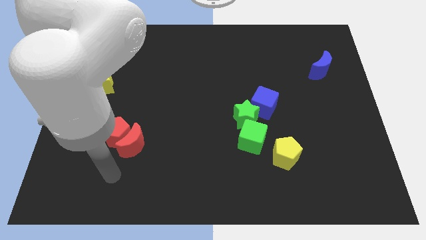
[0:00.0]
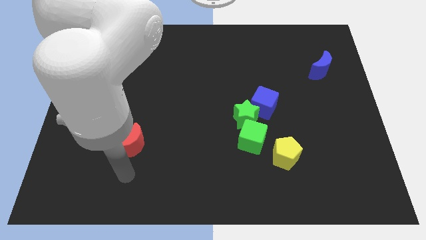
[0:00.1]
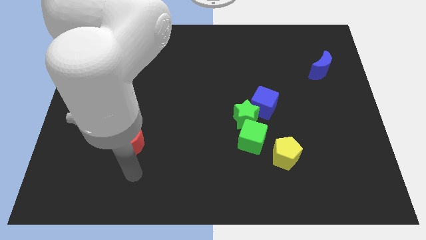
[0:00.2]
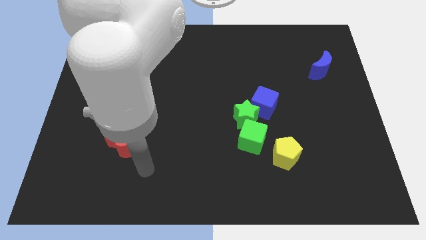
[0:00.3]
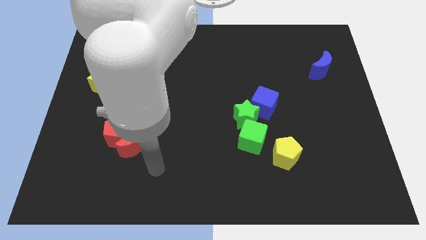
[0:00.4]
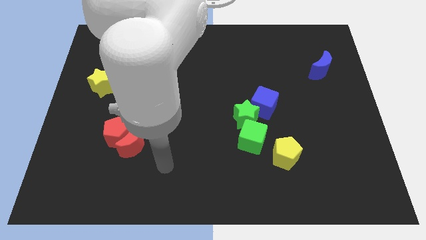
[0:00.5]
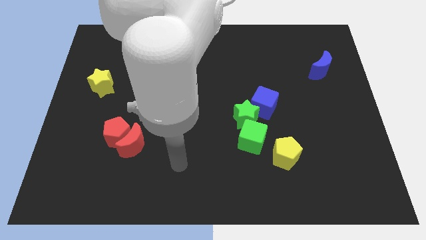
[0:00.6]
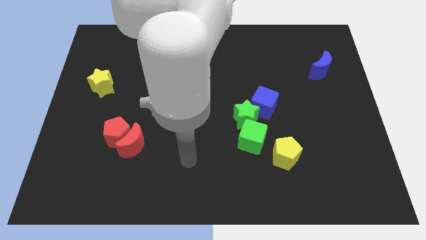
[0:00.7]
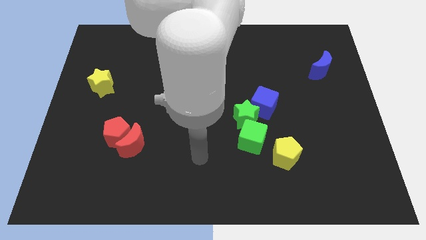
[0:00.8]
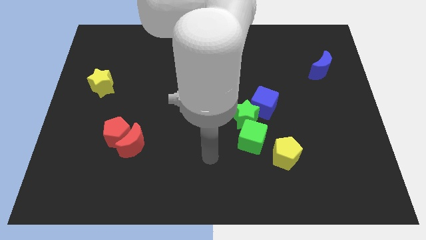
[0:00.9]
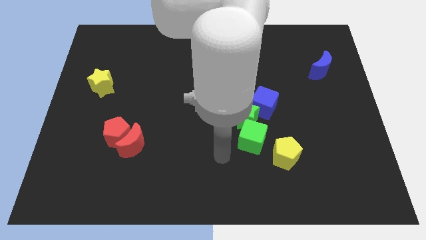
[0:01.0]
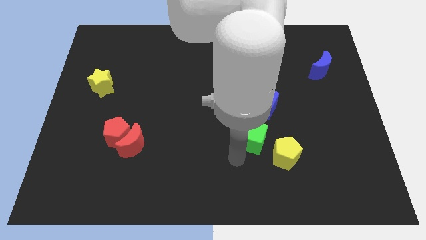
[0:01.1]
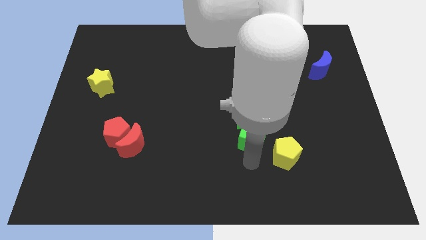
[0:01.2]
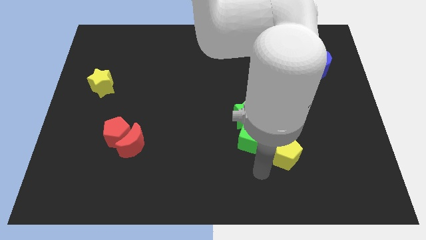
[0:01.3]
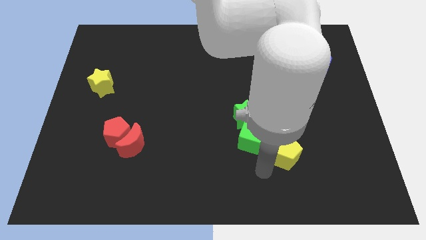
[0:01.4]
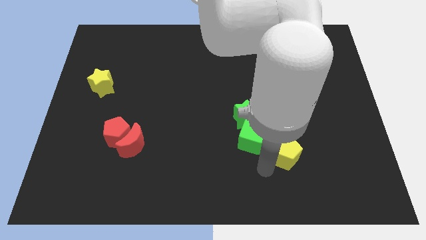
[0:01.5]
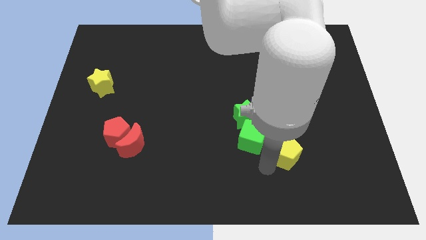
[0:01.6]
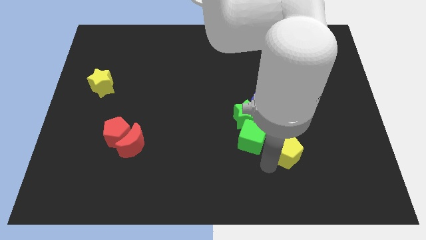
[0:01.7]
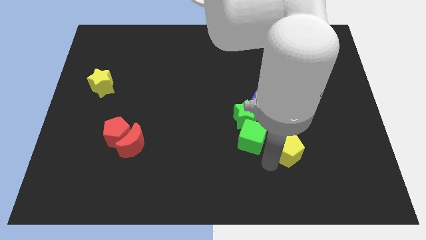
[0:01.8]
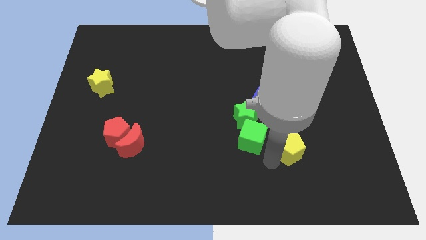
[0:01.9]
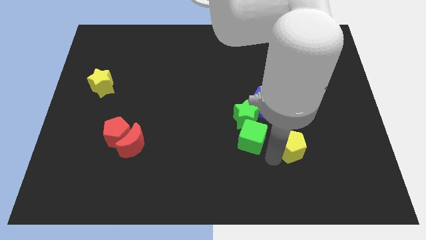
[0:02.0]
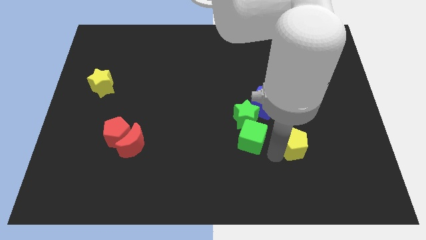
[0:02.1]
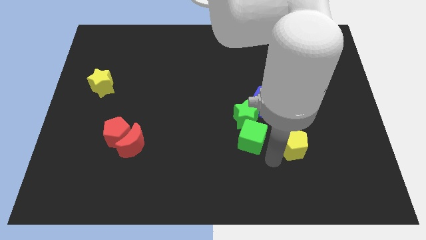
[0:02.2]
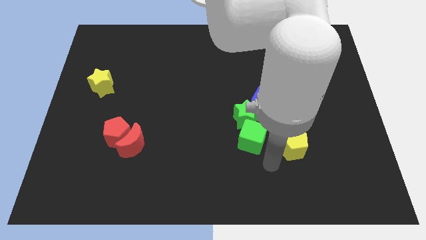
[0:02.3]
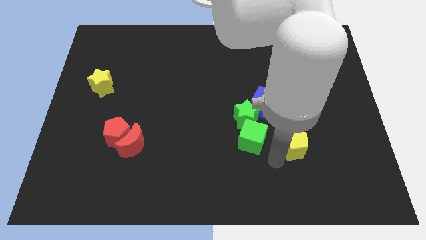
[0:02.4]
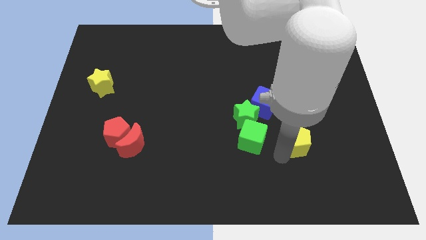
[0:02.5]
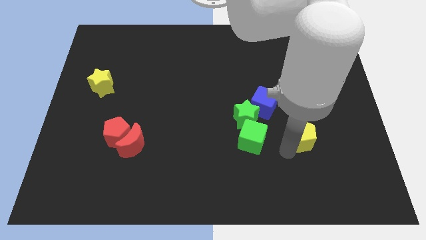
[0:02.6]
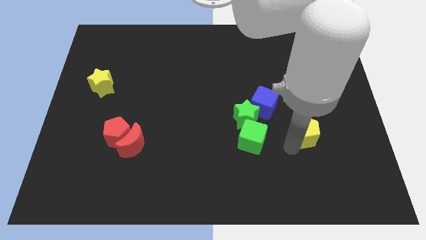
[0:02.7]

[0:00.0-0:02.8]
slightly move the yellow pentagon up and then to the right

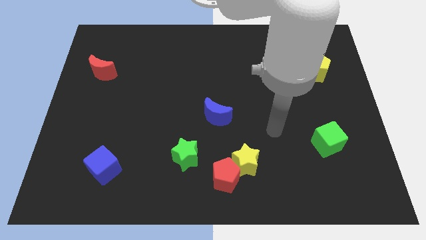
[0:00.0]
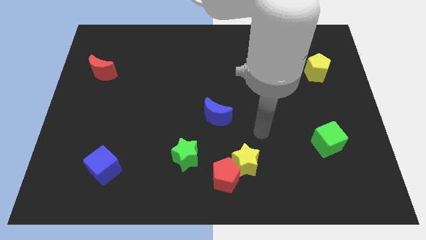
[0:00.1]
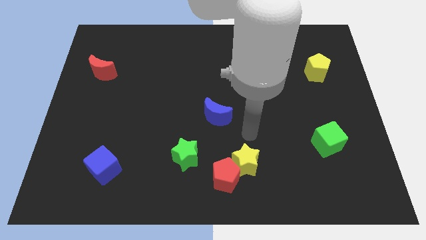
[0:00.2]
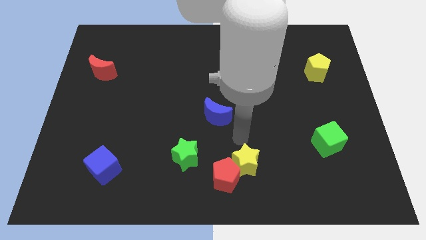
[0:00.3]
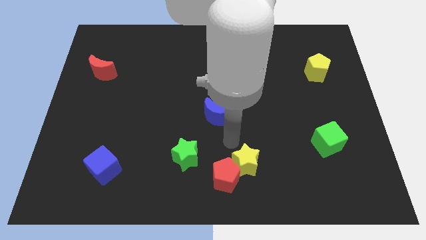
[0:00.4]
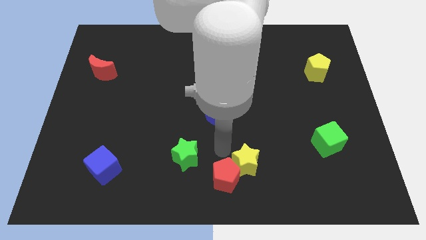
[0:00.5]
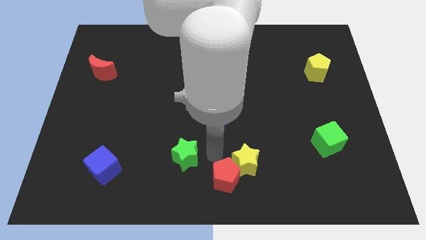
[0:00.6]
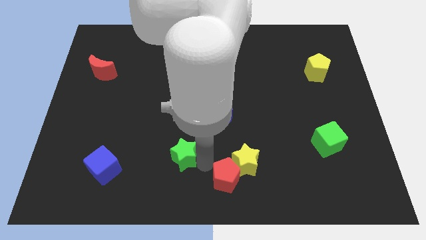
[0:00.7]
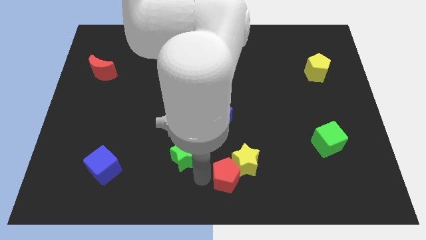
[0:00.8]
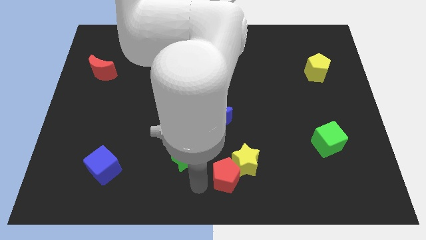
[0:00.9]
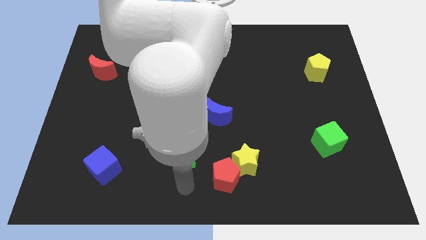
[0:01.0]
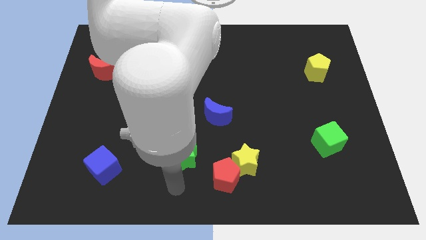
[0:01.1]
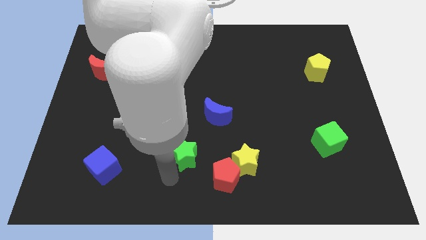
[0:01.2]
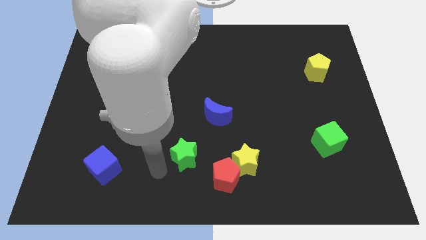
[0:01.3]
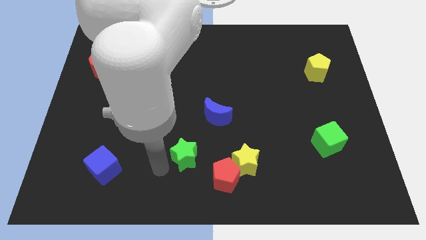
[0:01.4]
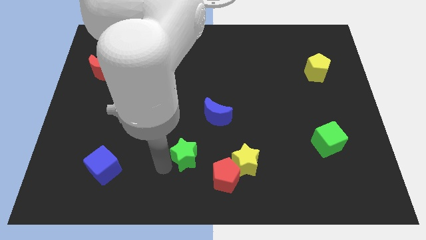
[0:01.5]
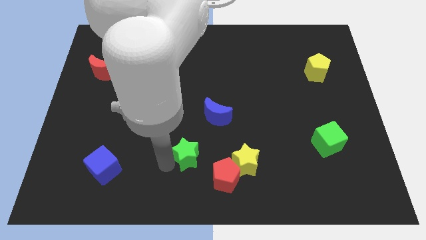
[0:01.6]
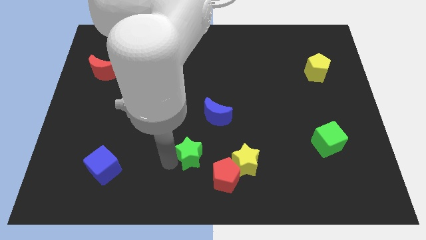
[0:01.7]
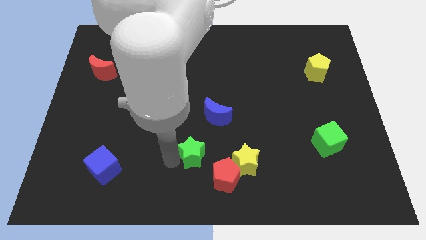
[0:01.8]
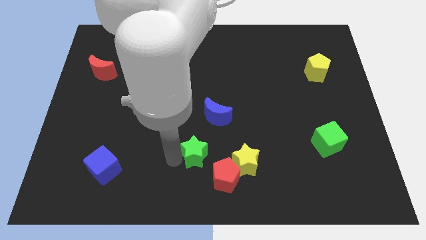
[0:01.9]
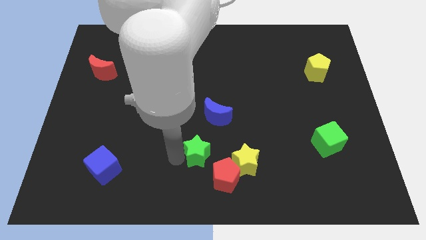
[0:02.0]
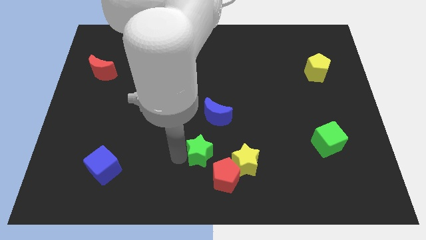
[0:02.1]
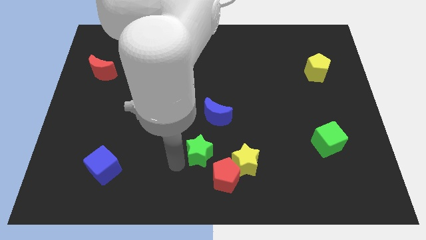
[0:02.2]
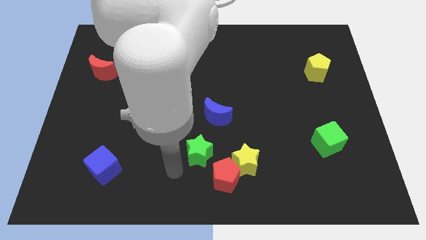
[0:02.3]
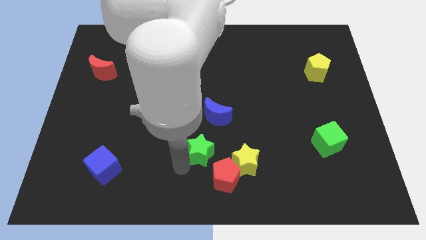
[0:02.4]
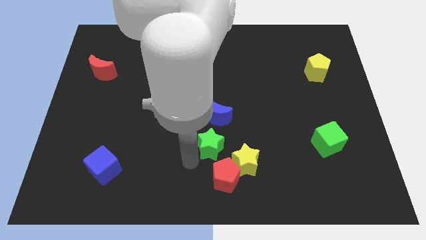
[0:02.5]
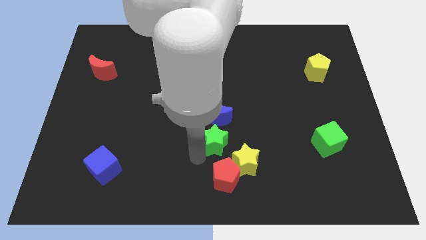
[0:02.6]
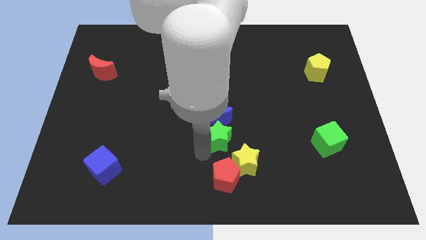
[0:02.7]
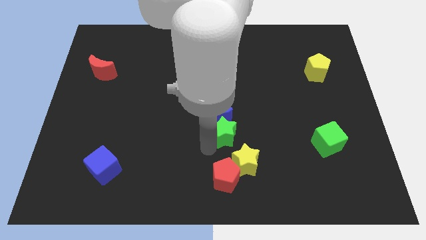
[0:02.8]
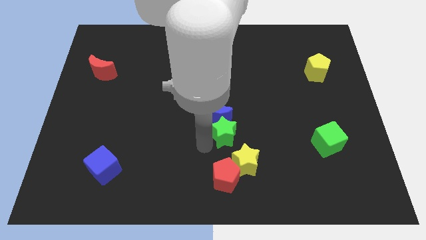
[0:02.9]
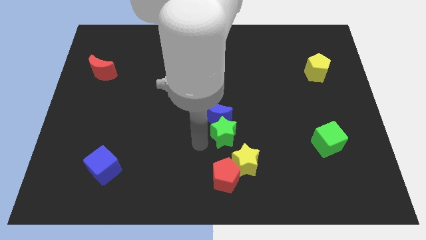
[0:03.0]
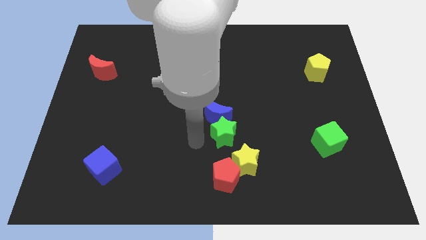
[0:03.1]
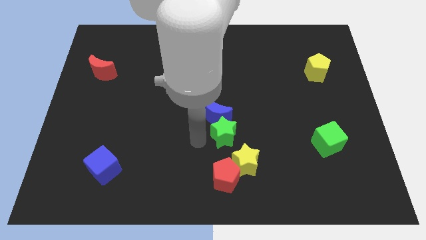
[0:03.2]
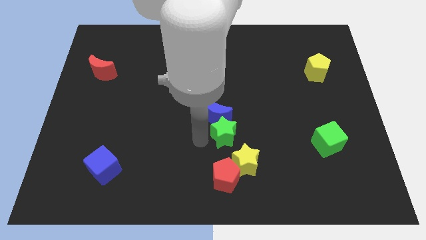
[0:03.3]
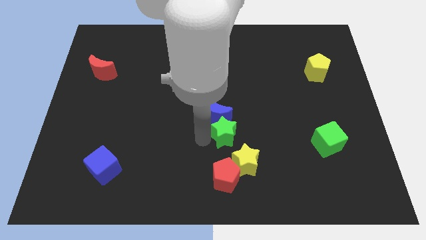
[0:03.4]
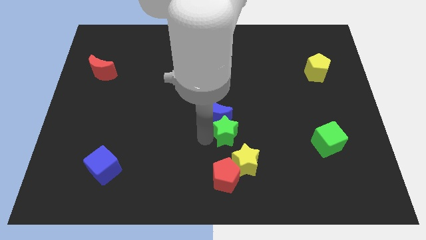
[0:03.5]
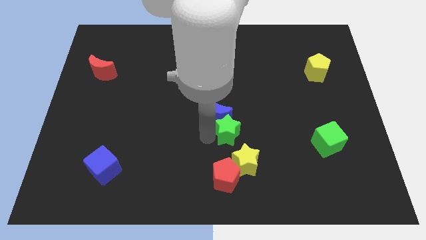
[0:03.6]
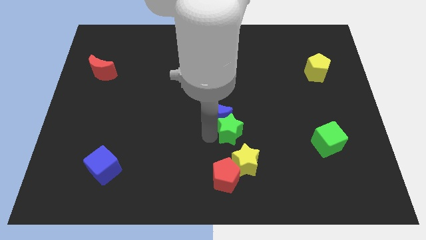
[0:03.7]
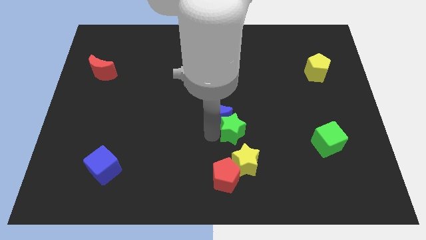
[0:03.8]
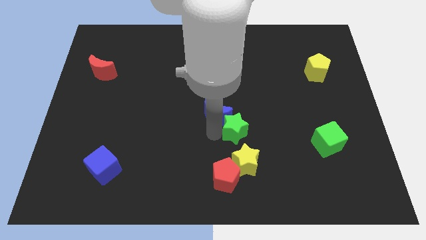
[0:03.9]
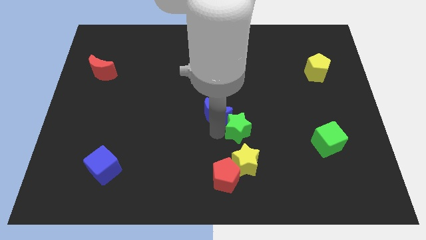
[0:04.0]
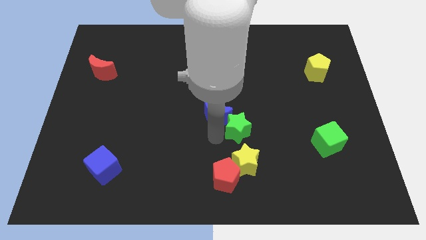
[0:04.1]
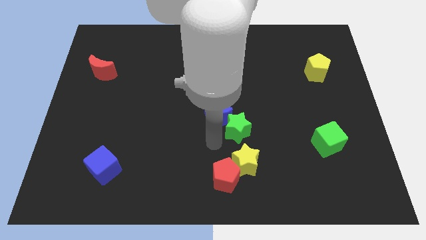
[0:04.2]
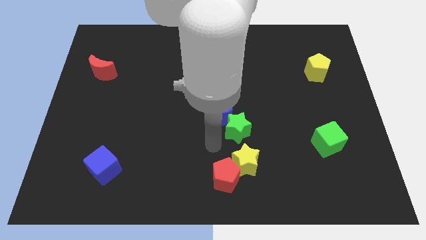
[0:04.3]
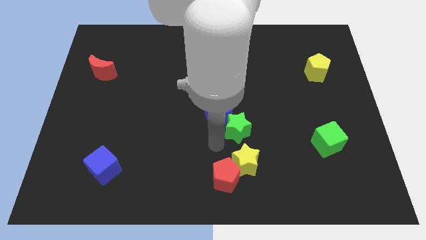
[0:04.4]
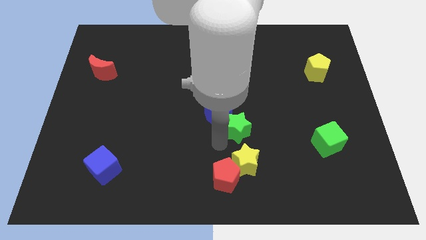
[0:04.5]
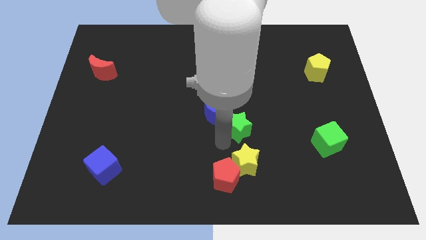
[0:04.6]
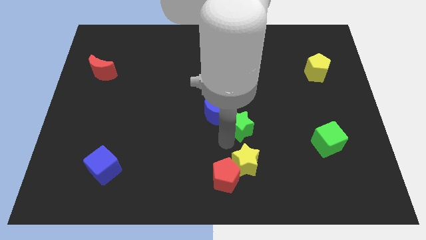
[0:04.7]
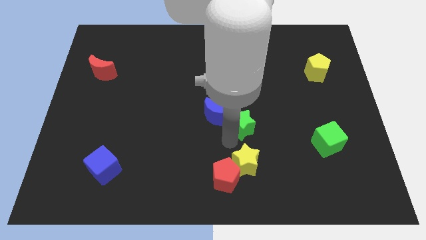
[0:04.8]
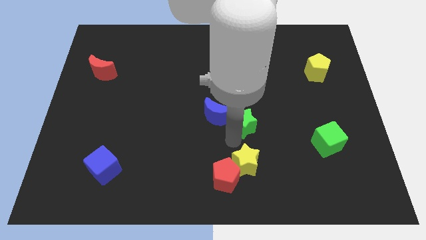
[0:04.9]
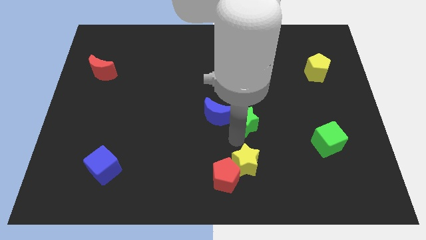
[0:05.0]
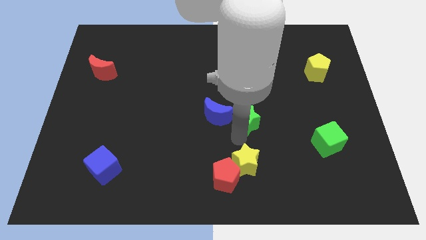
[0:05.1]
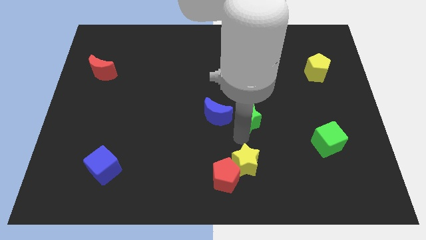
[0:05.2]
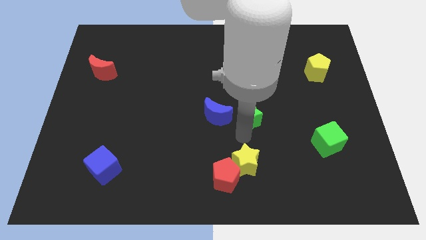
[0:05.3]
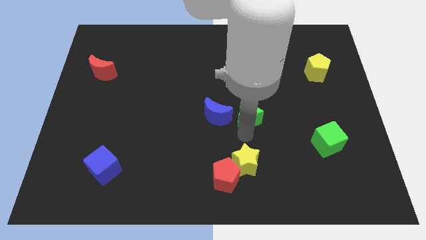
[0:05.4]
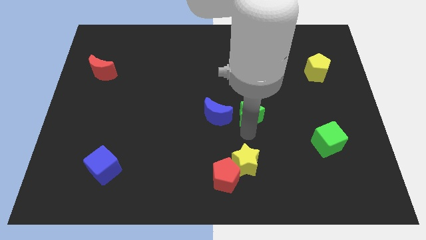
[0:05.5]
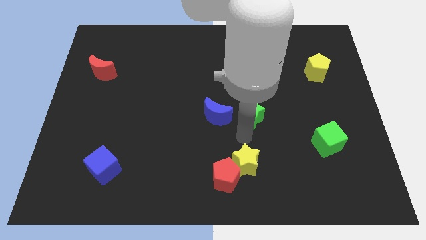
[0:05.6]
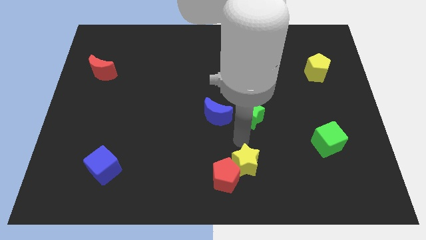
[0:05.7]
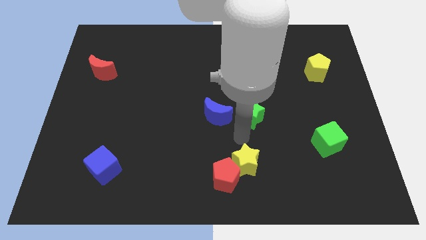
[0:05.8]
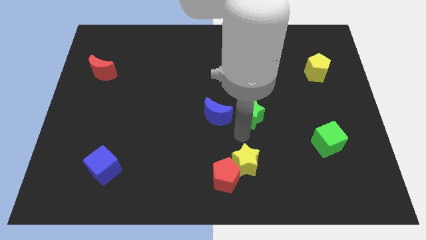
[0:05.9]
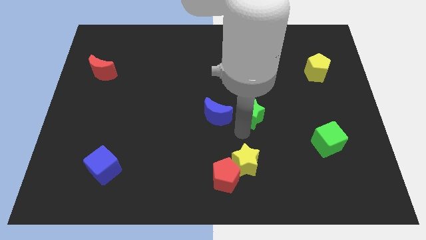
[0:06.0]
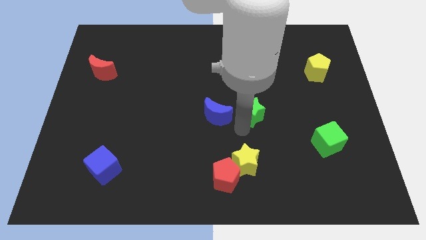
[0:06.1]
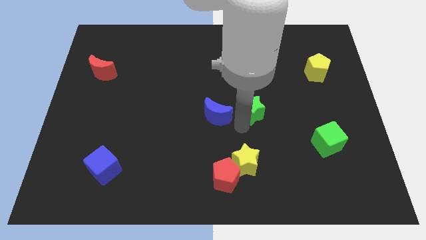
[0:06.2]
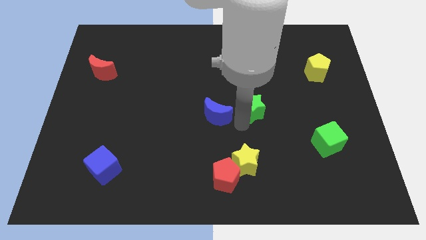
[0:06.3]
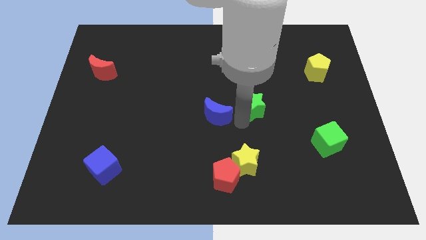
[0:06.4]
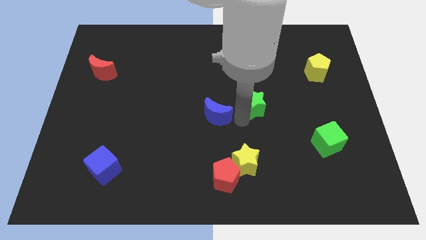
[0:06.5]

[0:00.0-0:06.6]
move the green star upwards and to the right
